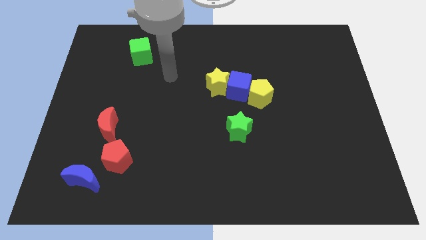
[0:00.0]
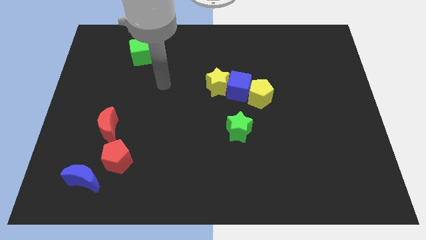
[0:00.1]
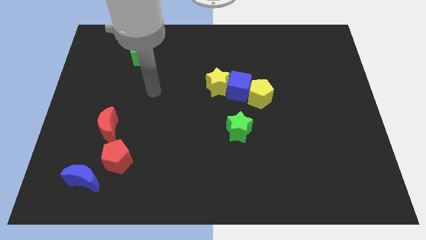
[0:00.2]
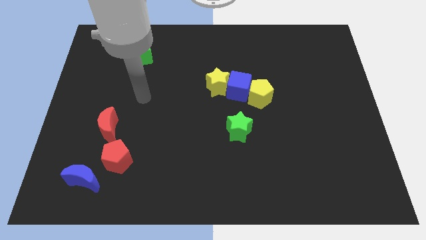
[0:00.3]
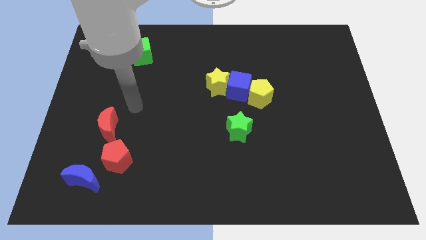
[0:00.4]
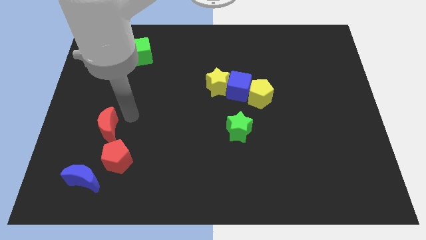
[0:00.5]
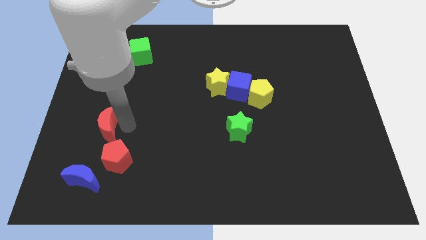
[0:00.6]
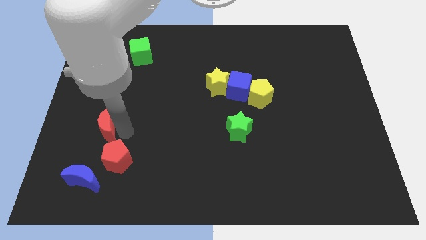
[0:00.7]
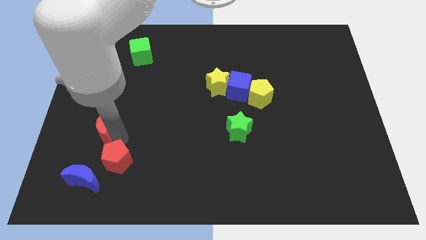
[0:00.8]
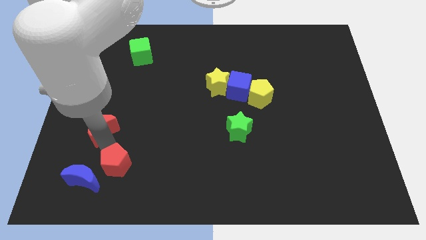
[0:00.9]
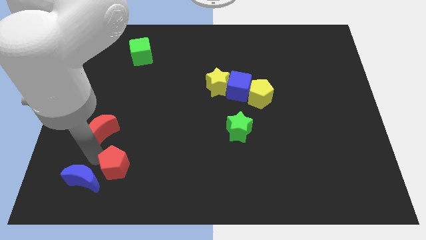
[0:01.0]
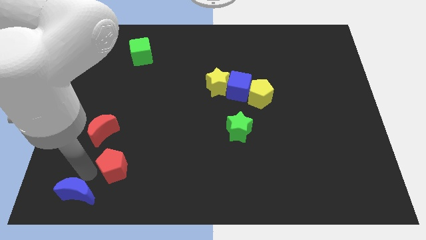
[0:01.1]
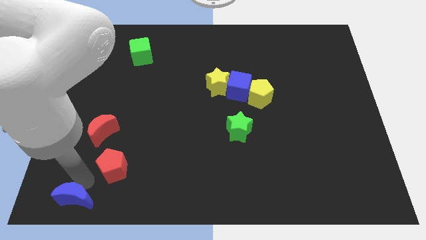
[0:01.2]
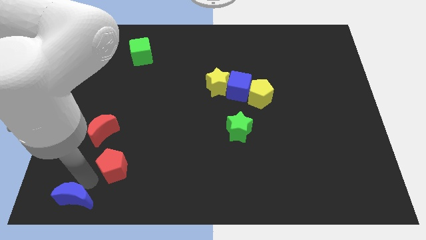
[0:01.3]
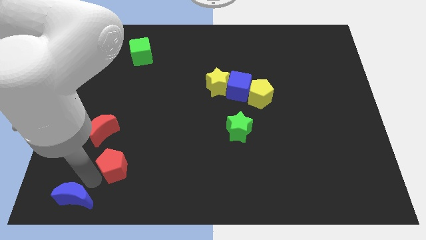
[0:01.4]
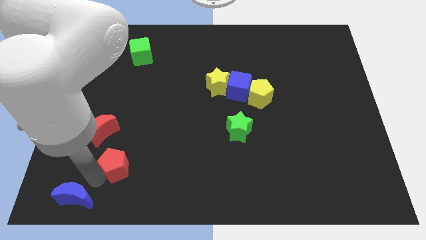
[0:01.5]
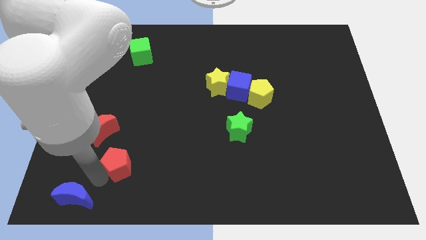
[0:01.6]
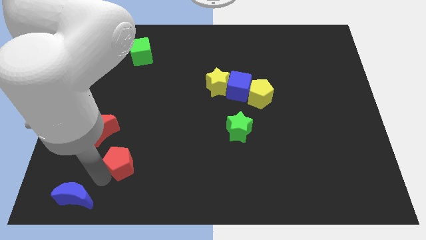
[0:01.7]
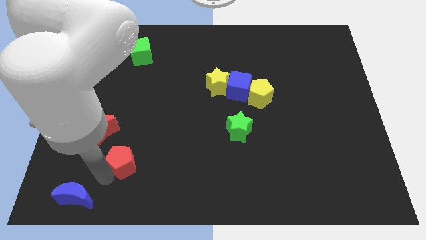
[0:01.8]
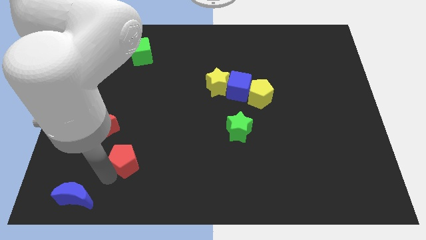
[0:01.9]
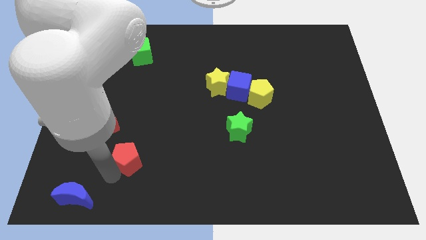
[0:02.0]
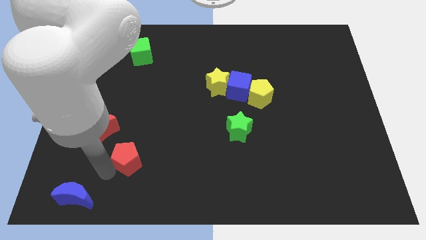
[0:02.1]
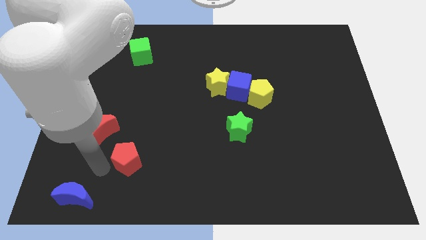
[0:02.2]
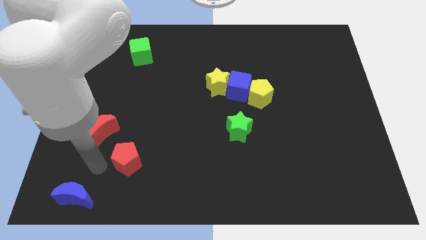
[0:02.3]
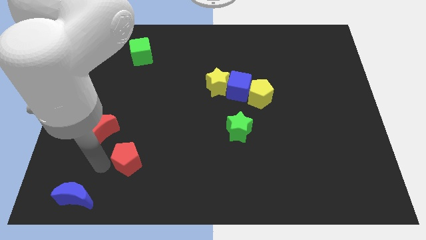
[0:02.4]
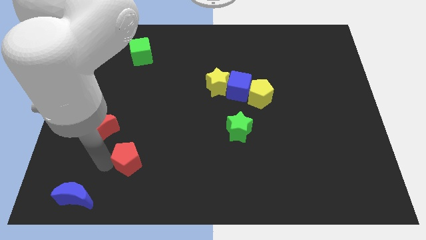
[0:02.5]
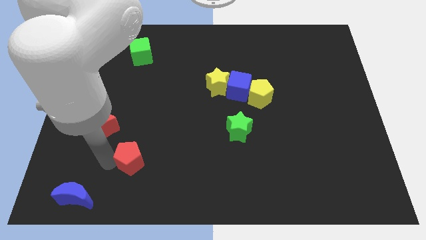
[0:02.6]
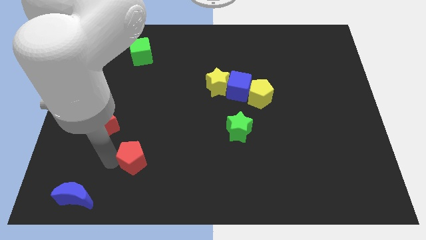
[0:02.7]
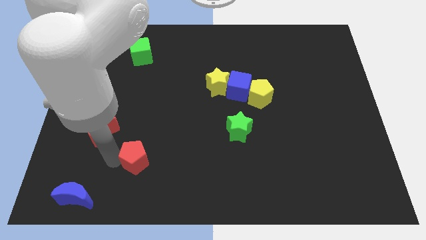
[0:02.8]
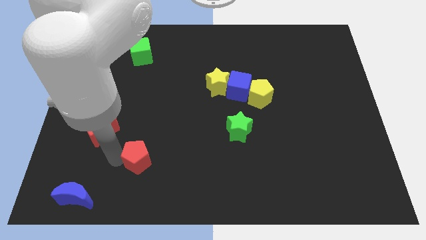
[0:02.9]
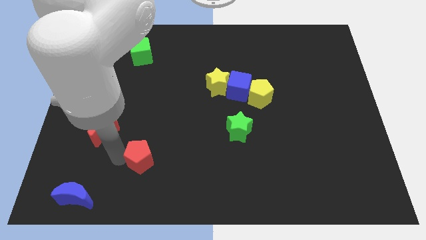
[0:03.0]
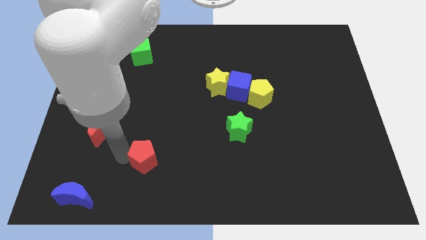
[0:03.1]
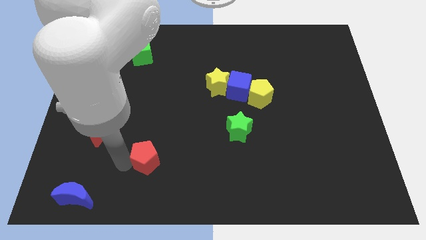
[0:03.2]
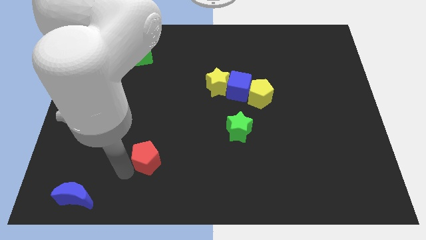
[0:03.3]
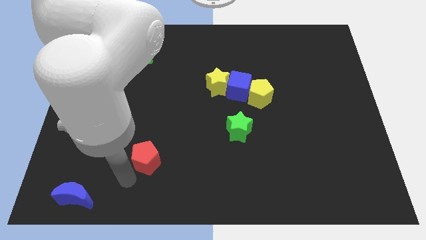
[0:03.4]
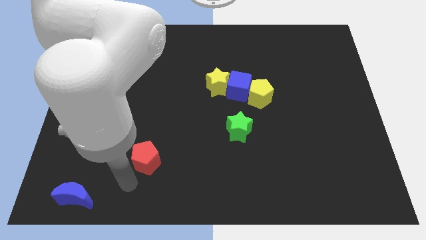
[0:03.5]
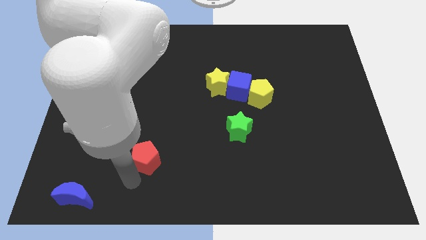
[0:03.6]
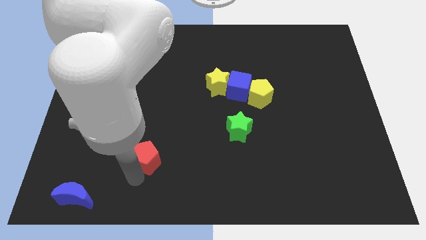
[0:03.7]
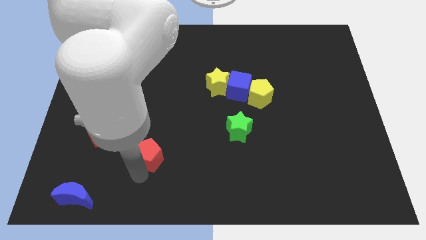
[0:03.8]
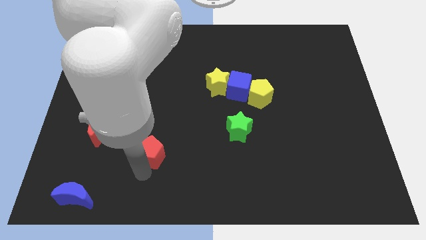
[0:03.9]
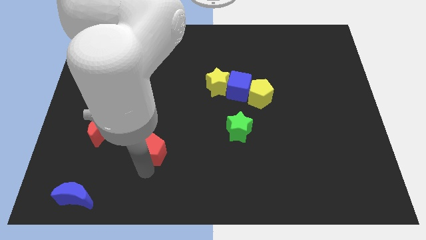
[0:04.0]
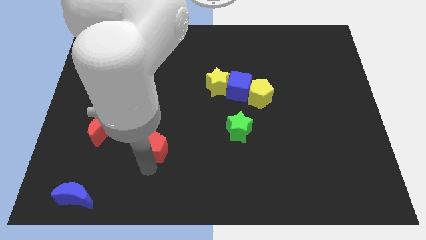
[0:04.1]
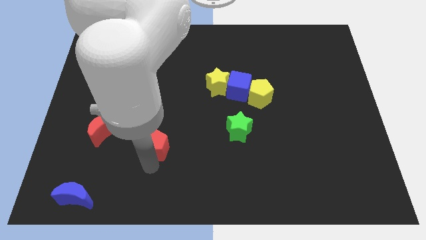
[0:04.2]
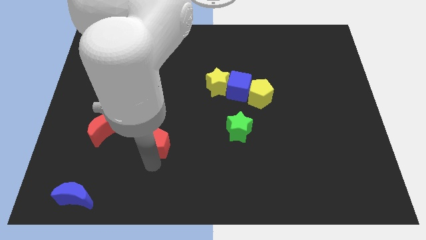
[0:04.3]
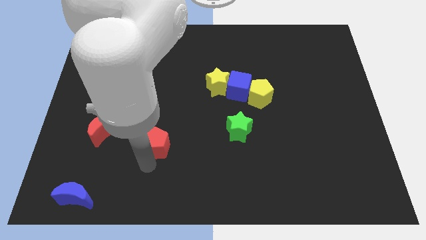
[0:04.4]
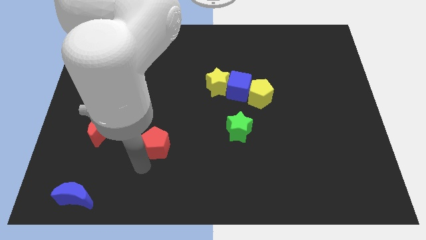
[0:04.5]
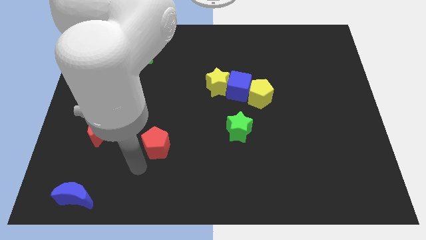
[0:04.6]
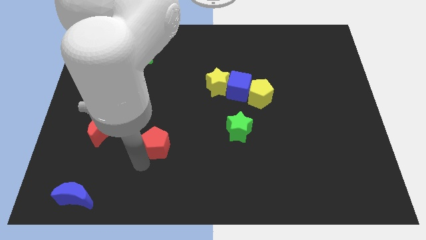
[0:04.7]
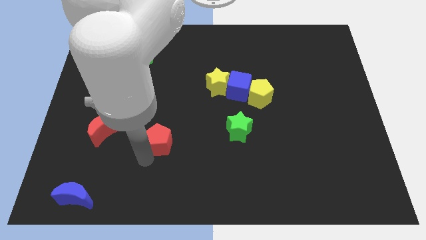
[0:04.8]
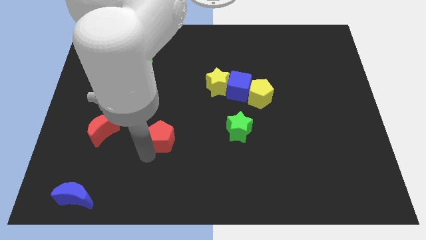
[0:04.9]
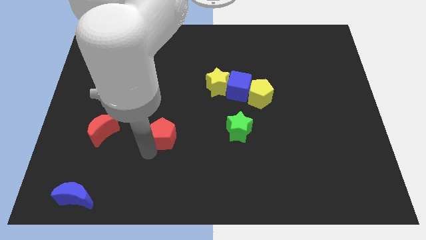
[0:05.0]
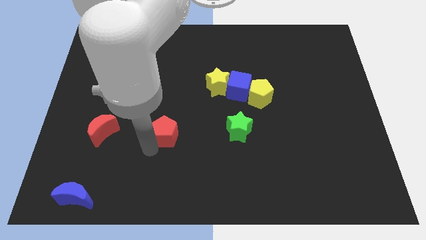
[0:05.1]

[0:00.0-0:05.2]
put the red pentagon just left of the green star

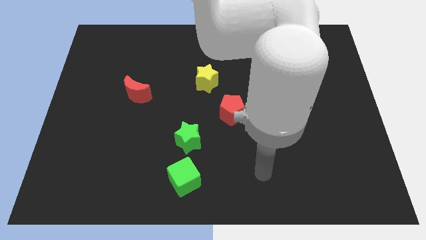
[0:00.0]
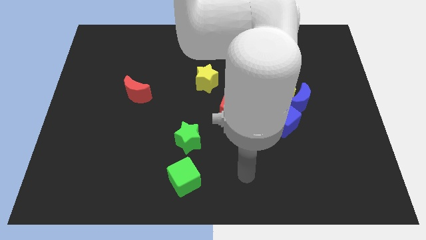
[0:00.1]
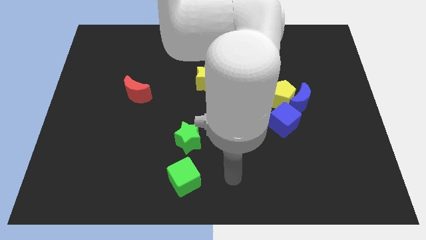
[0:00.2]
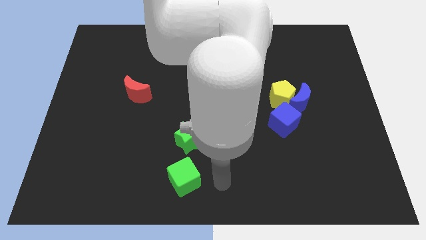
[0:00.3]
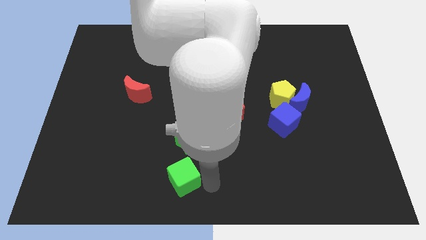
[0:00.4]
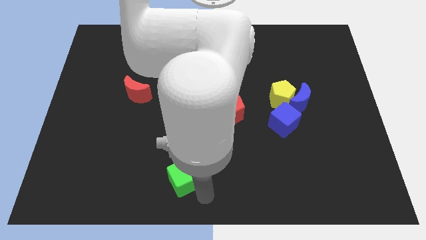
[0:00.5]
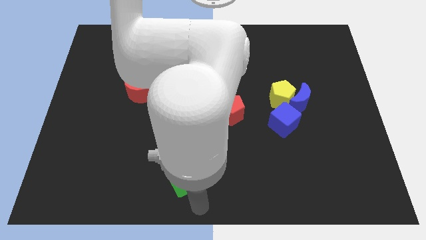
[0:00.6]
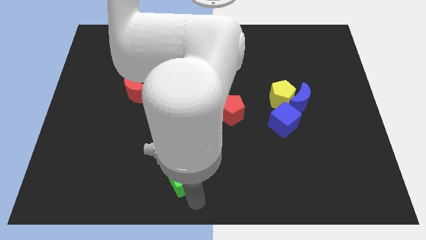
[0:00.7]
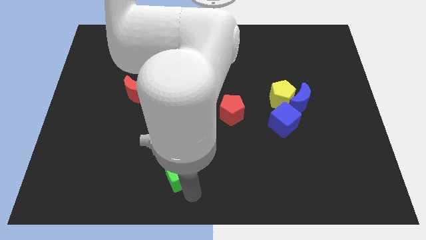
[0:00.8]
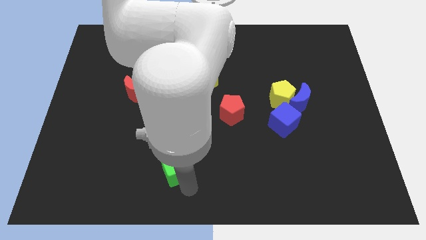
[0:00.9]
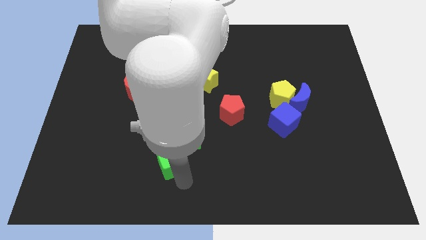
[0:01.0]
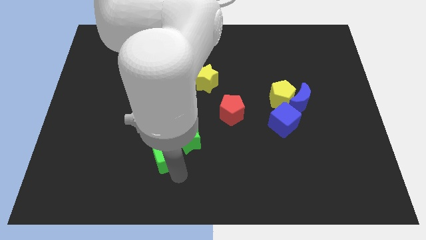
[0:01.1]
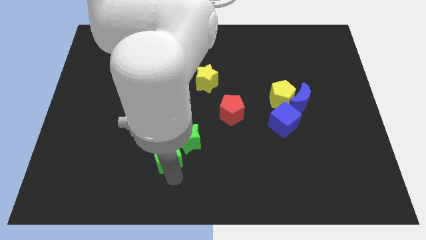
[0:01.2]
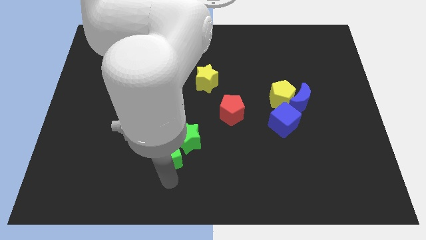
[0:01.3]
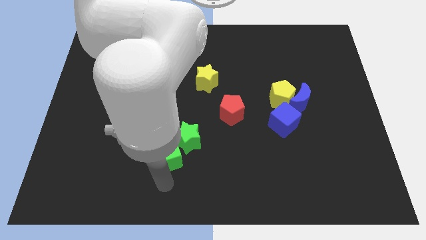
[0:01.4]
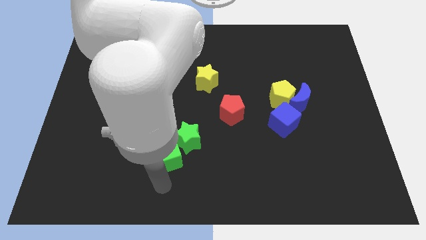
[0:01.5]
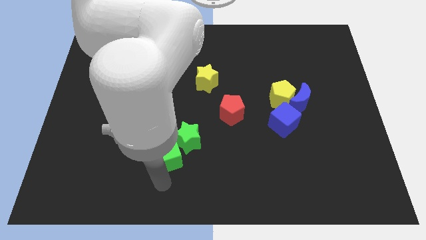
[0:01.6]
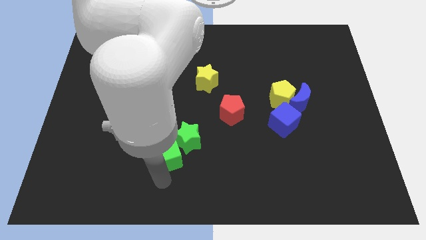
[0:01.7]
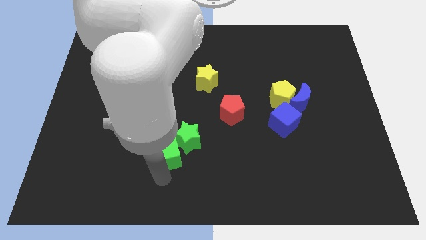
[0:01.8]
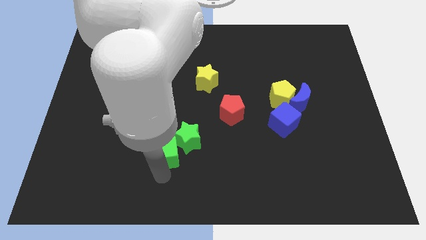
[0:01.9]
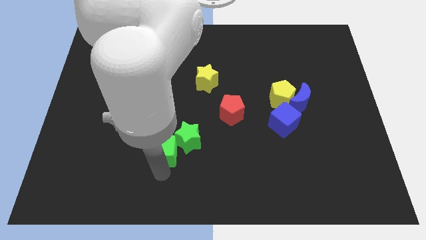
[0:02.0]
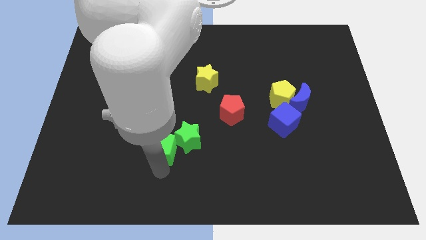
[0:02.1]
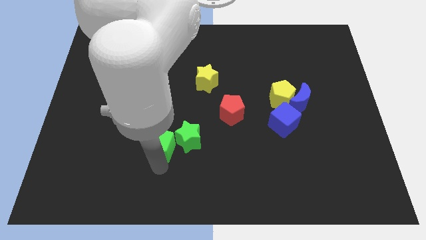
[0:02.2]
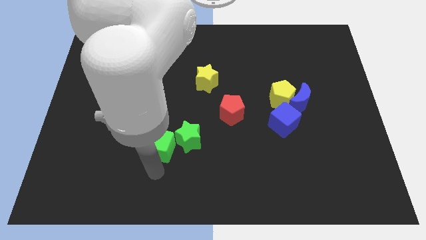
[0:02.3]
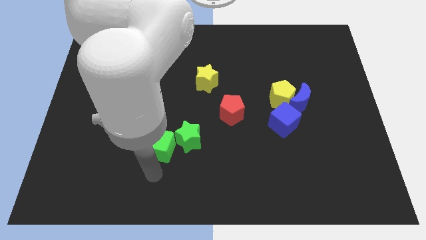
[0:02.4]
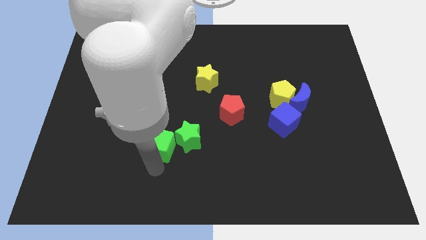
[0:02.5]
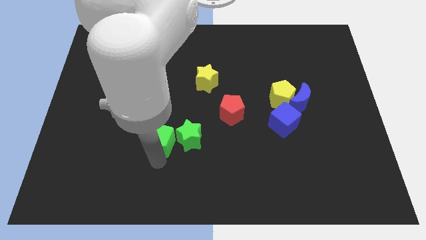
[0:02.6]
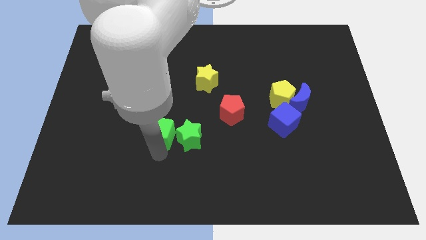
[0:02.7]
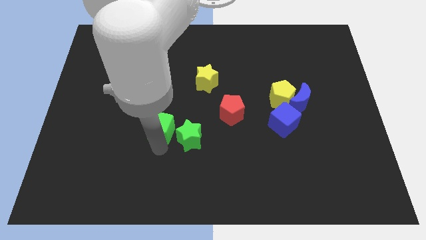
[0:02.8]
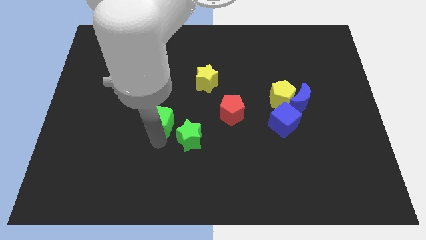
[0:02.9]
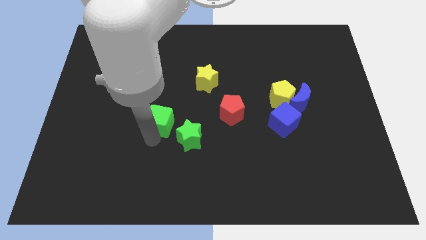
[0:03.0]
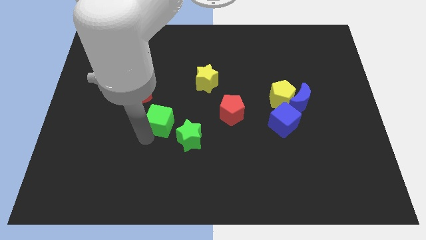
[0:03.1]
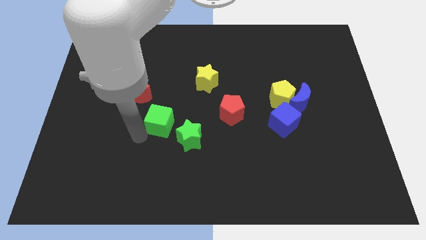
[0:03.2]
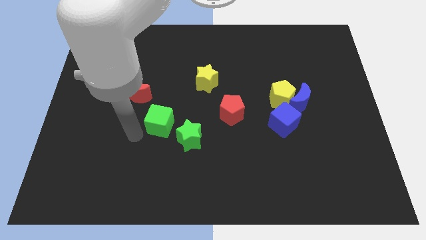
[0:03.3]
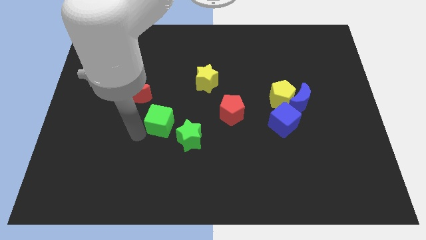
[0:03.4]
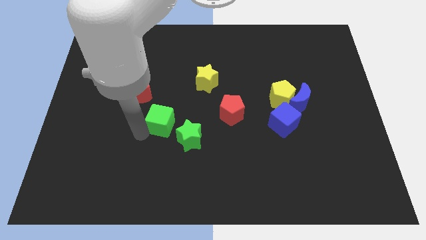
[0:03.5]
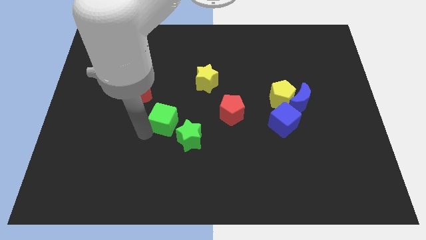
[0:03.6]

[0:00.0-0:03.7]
slide the green cube to the left of the red pentagon
